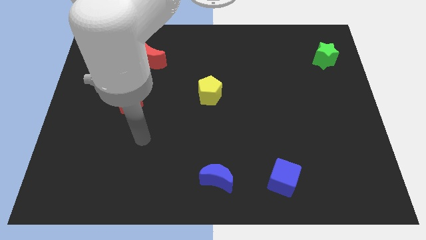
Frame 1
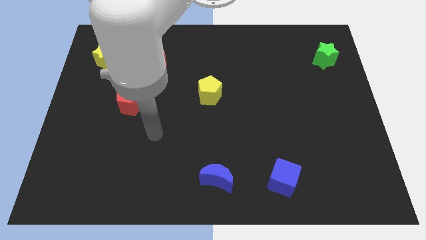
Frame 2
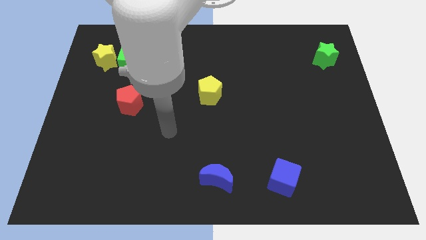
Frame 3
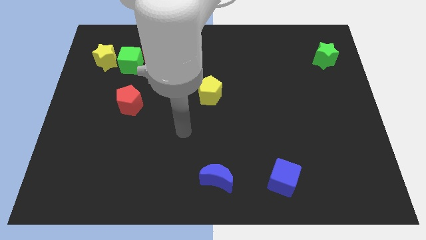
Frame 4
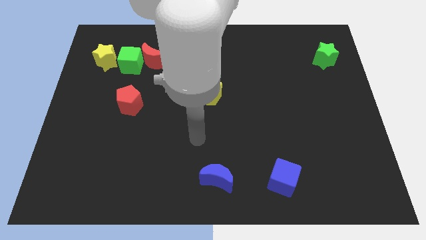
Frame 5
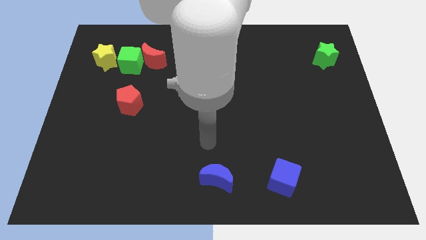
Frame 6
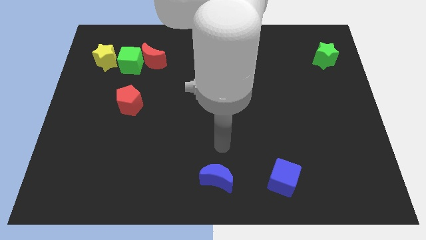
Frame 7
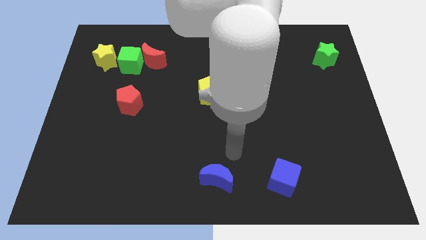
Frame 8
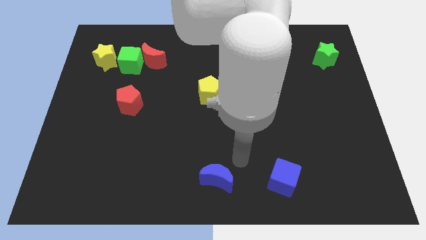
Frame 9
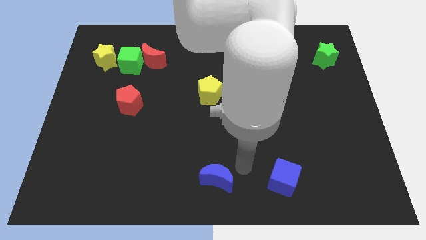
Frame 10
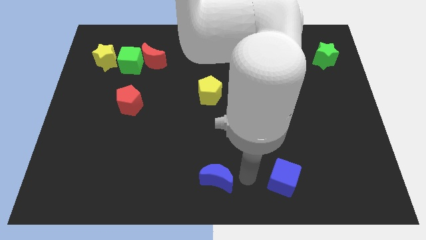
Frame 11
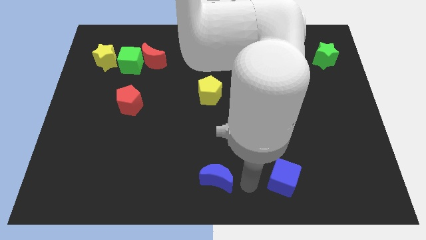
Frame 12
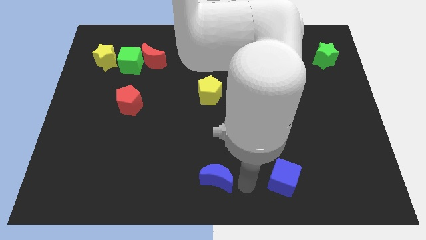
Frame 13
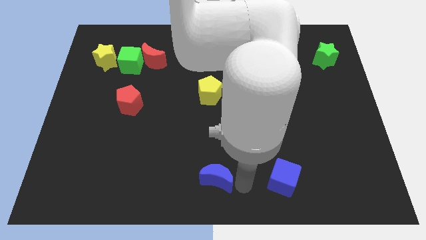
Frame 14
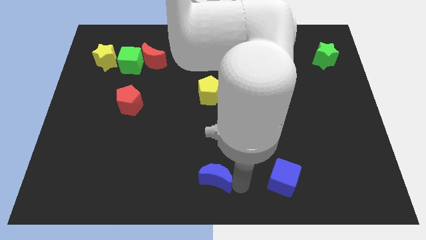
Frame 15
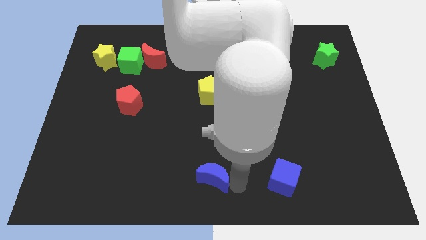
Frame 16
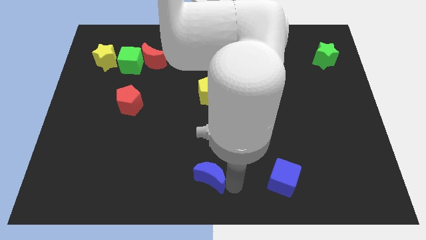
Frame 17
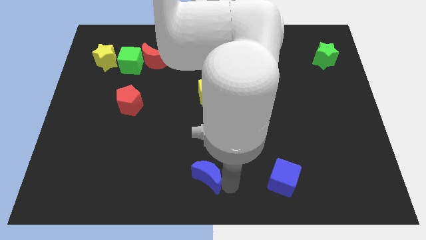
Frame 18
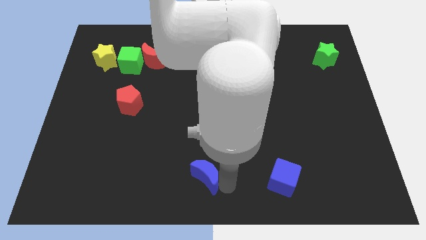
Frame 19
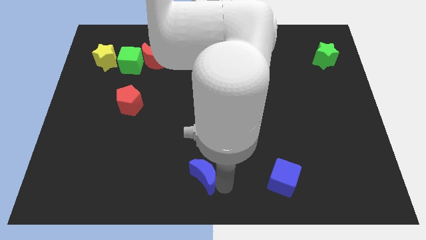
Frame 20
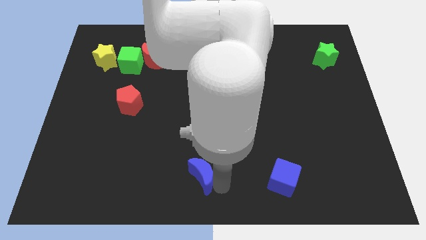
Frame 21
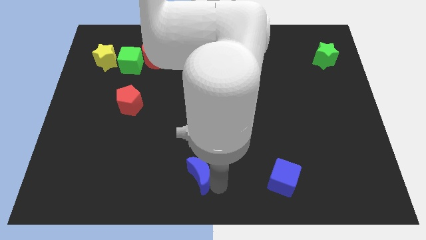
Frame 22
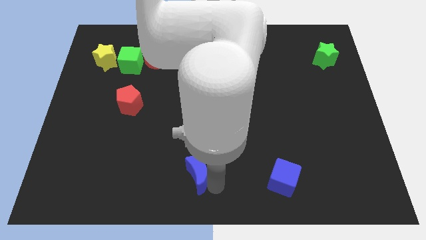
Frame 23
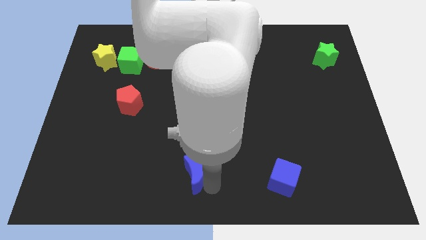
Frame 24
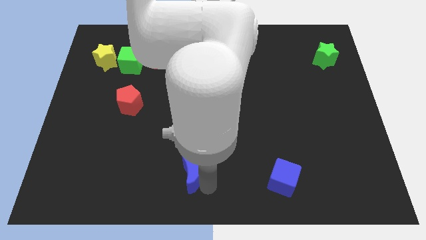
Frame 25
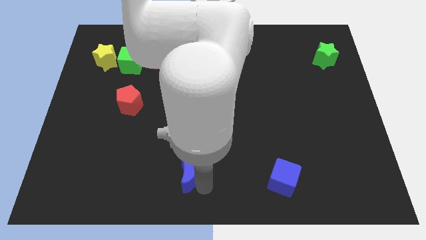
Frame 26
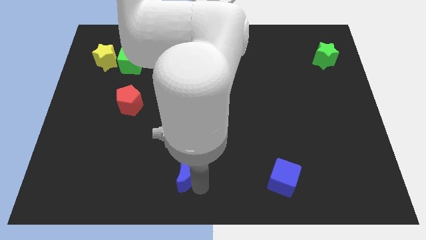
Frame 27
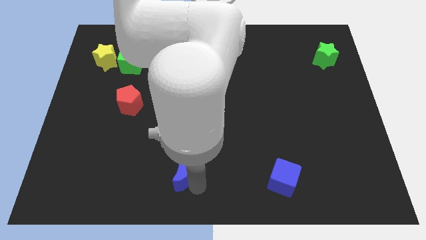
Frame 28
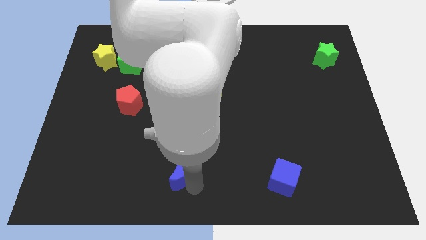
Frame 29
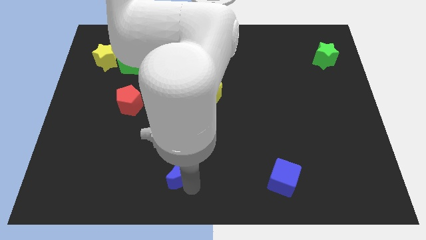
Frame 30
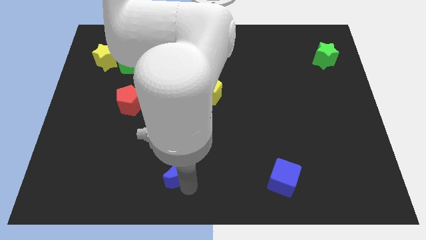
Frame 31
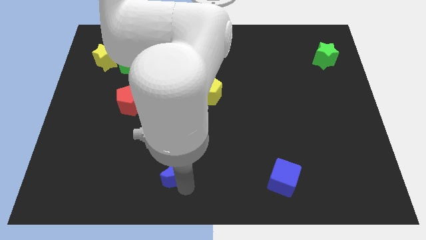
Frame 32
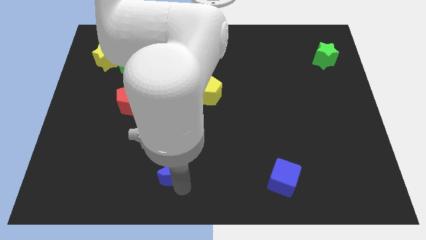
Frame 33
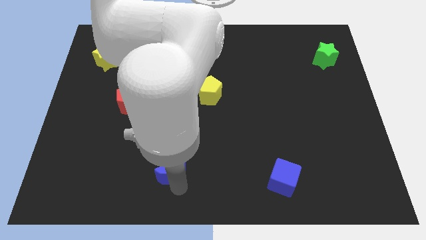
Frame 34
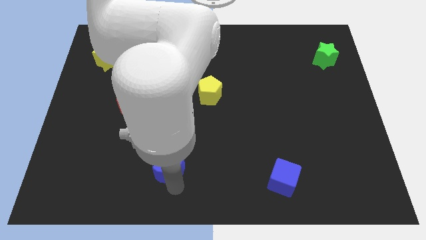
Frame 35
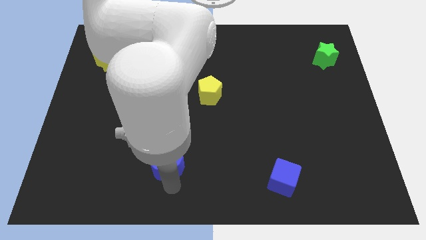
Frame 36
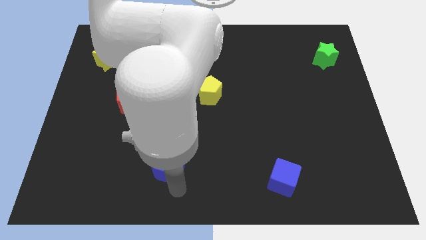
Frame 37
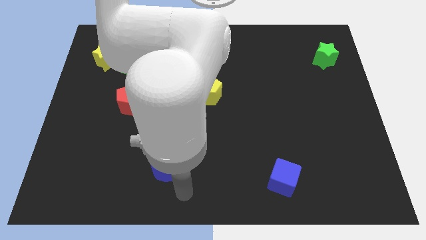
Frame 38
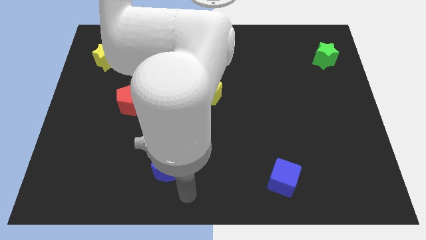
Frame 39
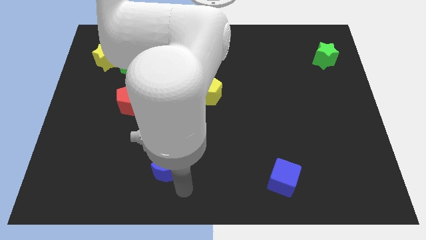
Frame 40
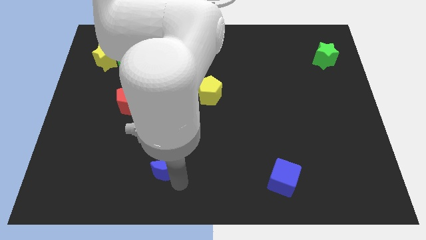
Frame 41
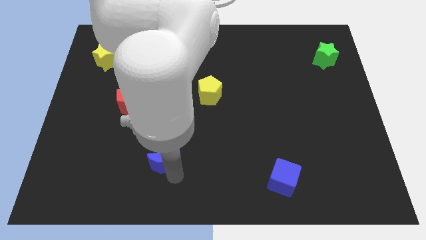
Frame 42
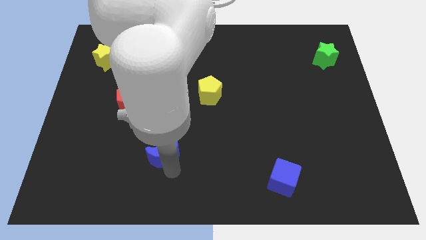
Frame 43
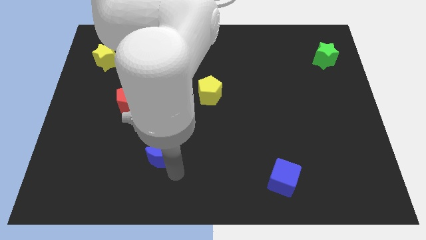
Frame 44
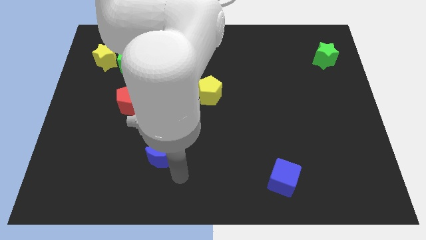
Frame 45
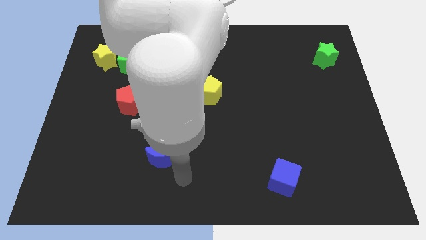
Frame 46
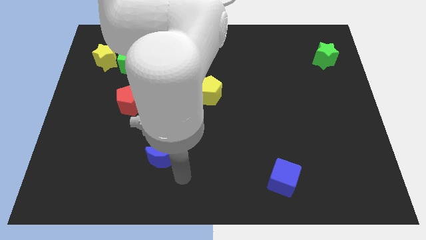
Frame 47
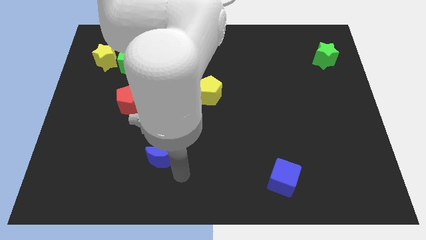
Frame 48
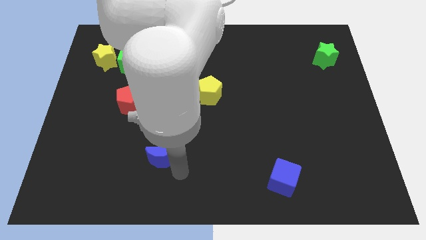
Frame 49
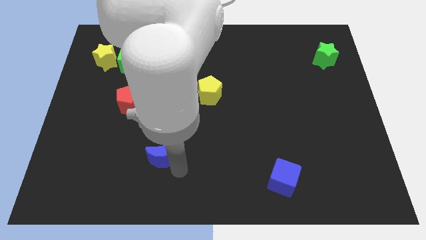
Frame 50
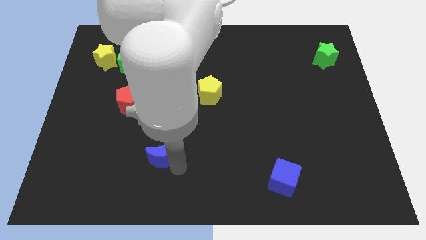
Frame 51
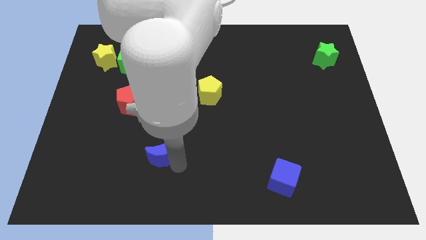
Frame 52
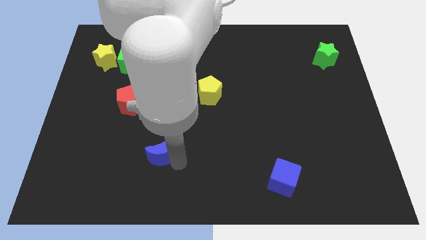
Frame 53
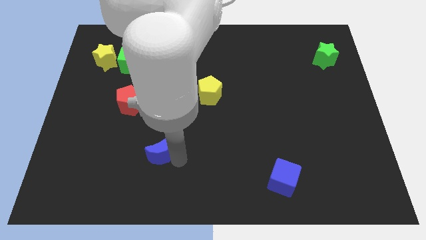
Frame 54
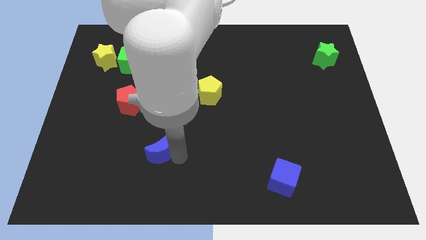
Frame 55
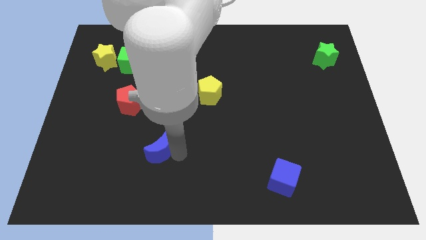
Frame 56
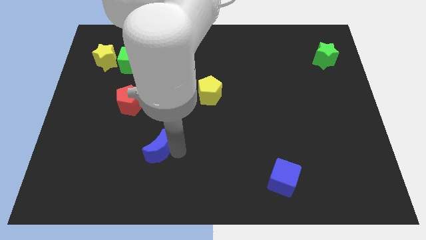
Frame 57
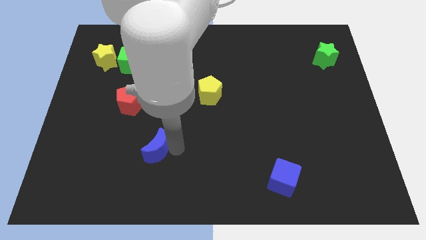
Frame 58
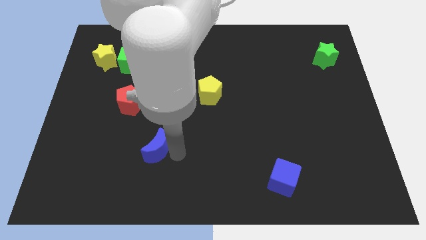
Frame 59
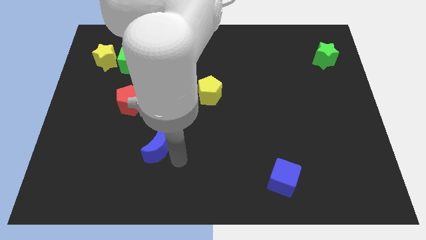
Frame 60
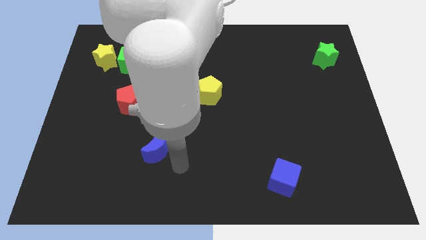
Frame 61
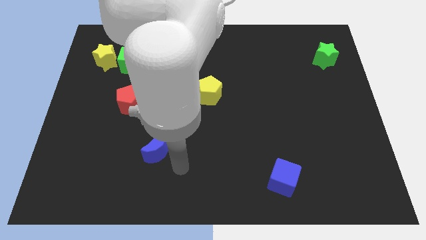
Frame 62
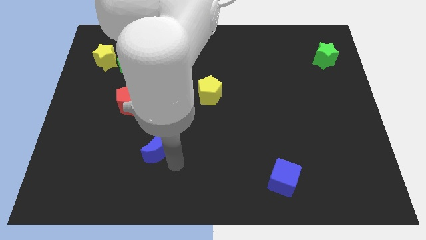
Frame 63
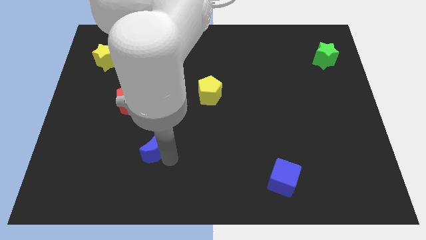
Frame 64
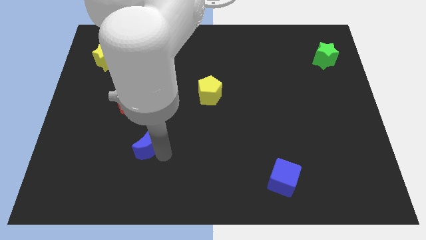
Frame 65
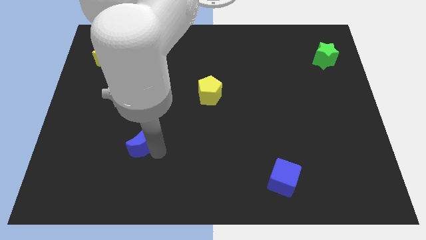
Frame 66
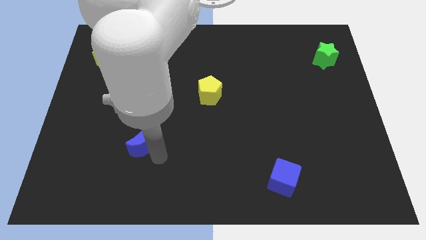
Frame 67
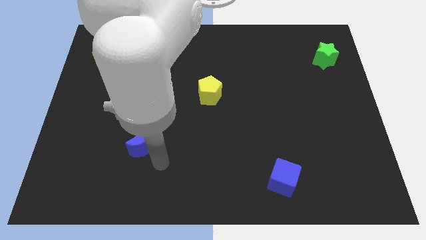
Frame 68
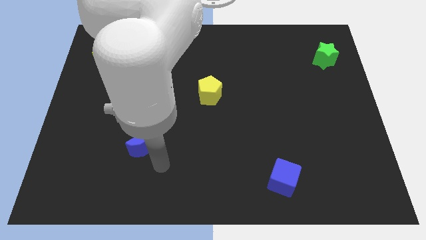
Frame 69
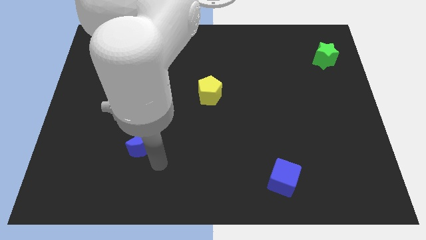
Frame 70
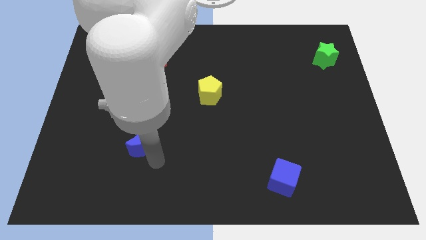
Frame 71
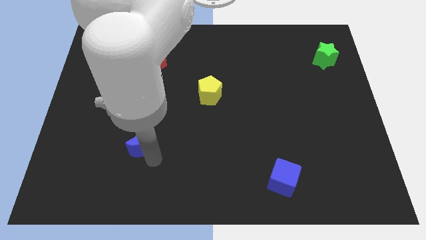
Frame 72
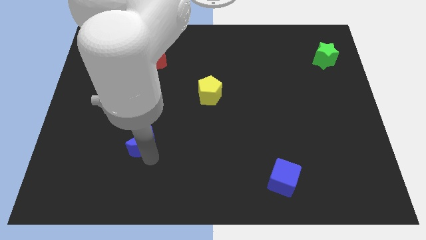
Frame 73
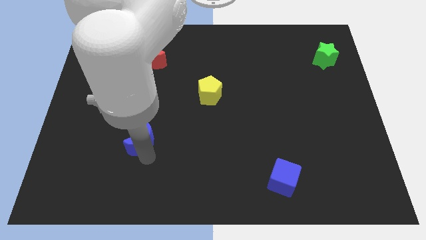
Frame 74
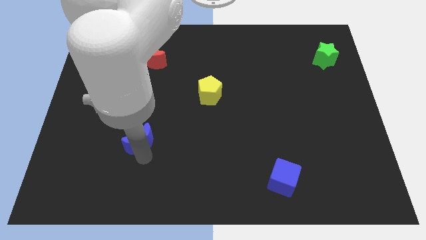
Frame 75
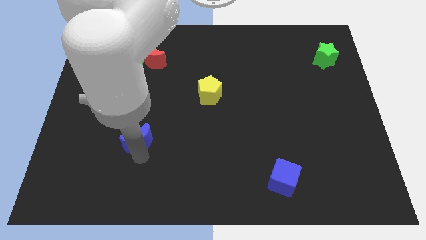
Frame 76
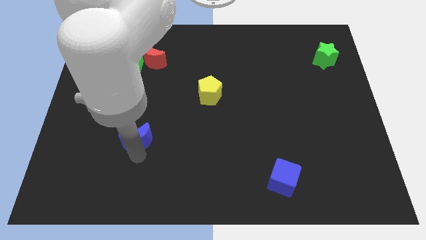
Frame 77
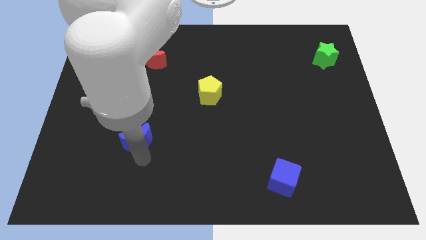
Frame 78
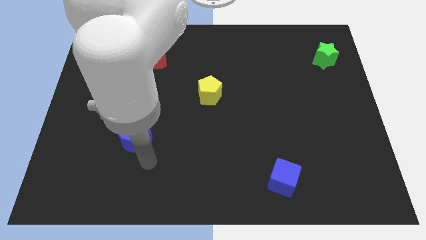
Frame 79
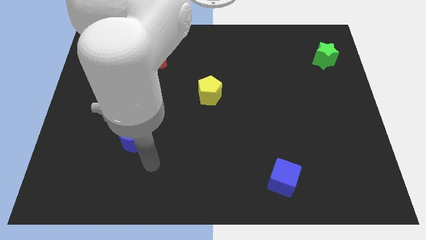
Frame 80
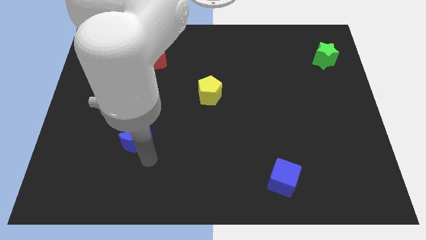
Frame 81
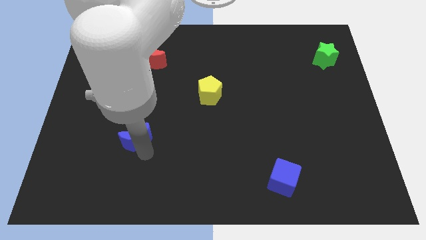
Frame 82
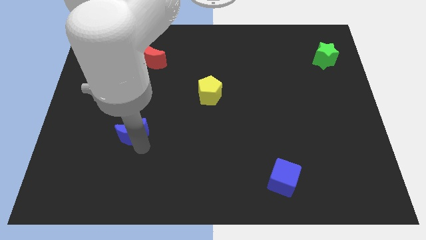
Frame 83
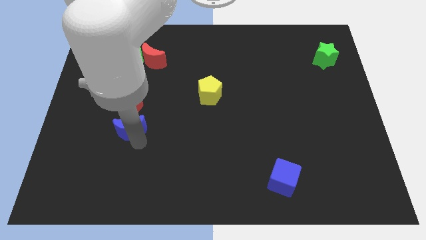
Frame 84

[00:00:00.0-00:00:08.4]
move the blue moon diagonally up and left
